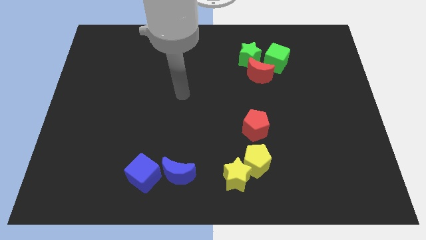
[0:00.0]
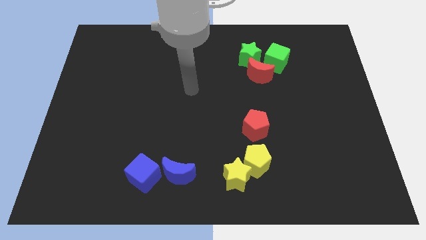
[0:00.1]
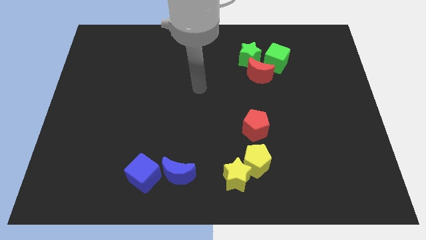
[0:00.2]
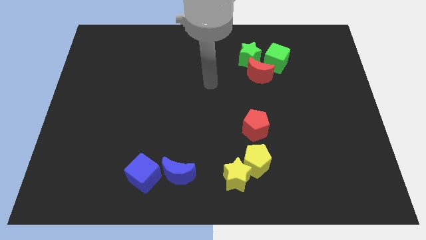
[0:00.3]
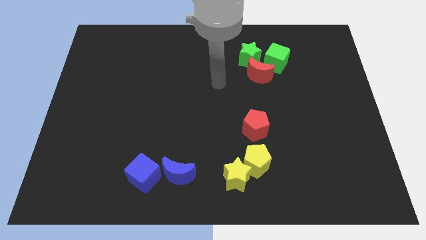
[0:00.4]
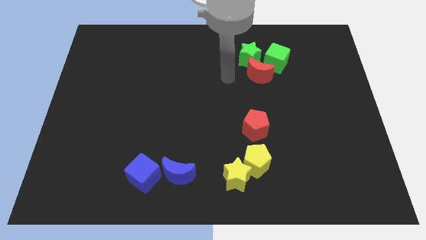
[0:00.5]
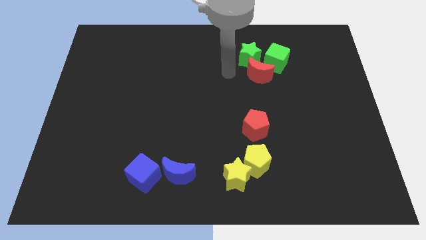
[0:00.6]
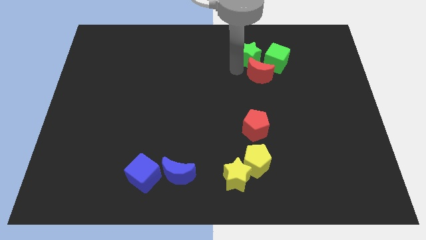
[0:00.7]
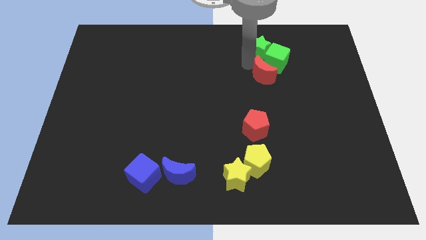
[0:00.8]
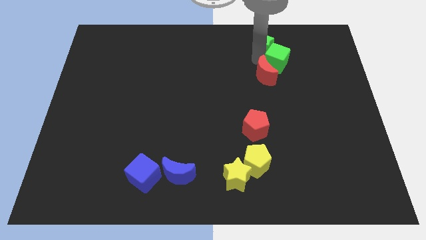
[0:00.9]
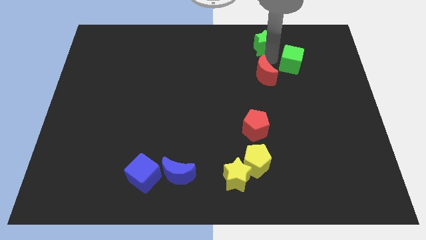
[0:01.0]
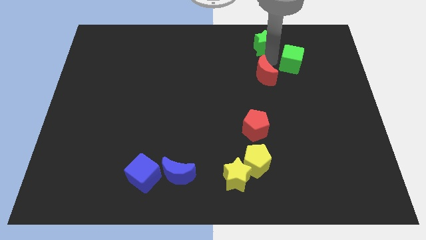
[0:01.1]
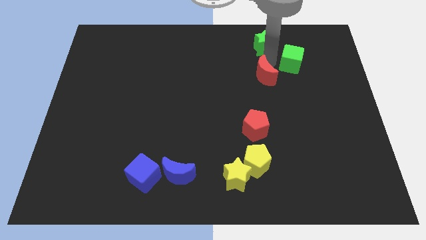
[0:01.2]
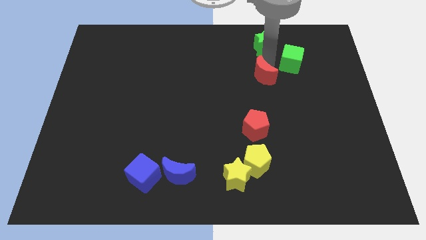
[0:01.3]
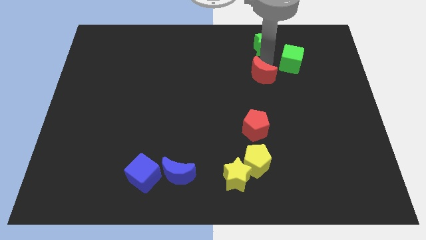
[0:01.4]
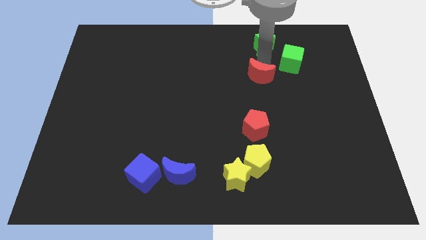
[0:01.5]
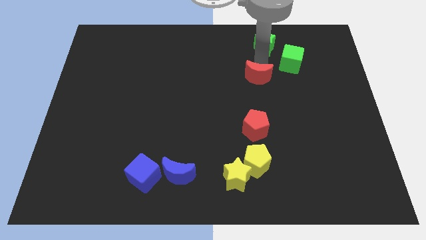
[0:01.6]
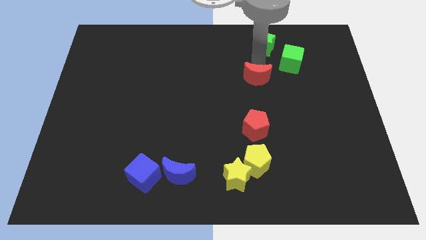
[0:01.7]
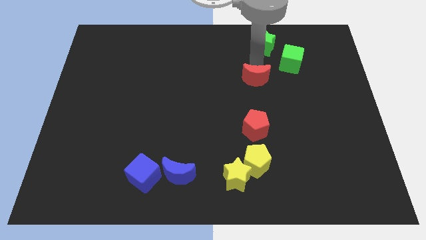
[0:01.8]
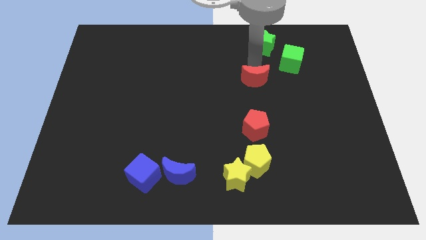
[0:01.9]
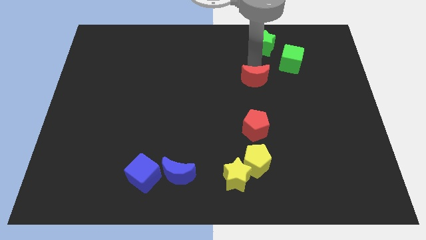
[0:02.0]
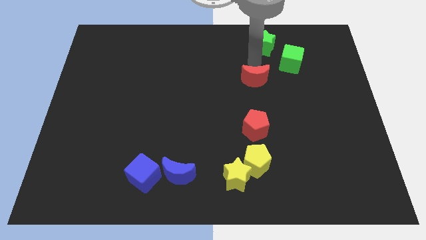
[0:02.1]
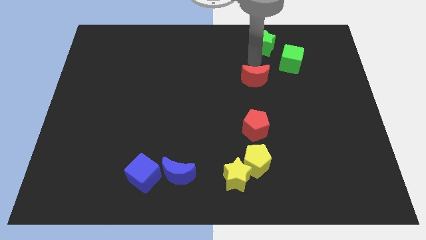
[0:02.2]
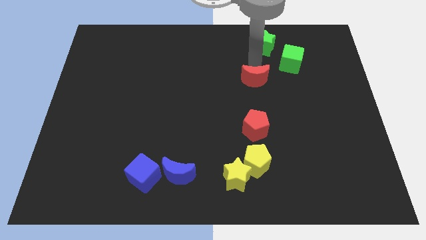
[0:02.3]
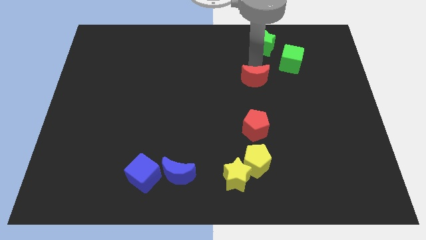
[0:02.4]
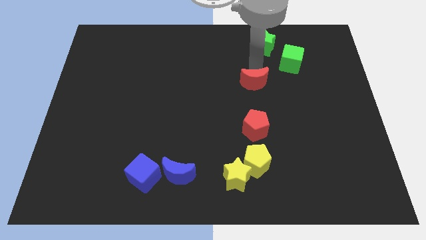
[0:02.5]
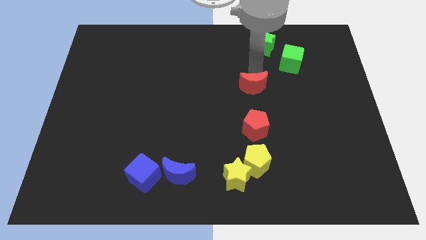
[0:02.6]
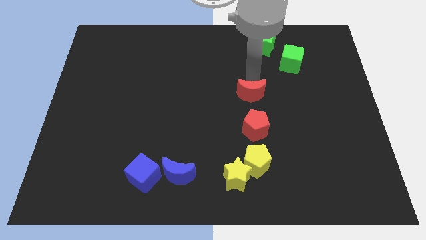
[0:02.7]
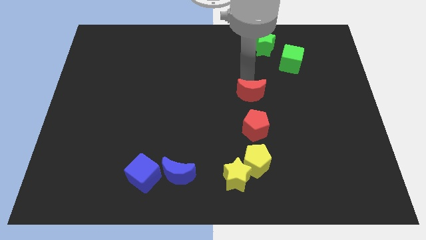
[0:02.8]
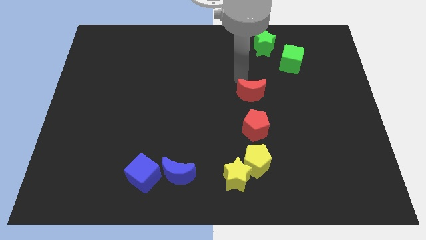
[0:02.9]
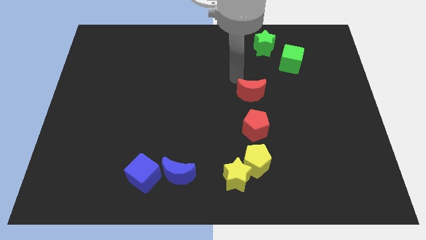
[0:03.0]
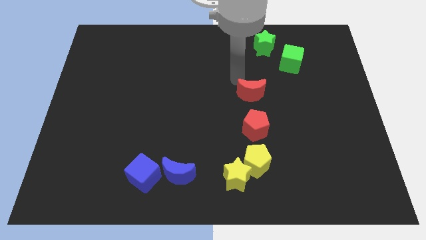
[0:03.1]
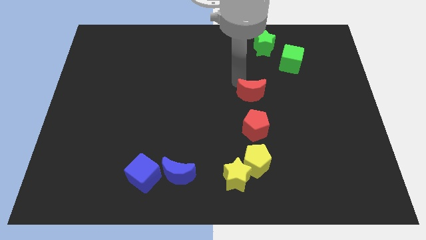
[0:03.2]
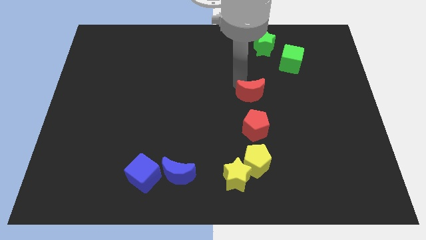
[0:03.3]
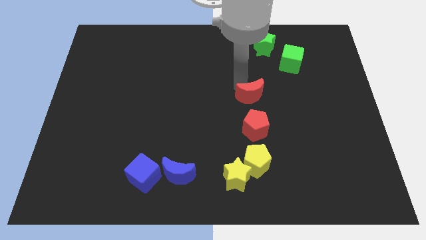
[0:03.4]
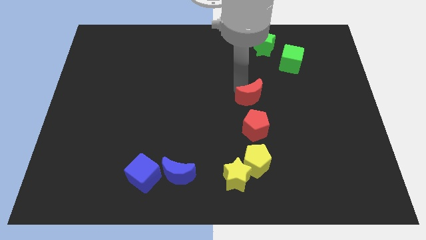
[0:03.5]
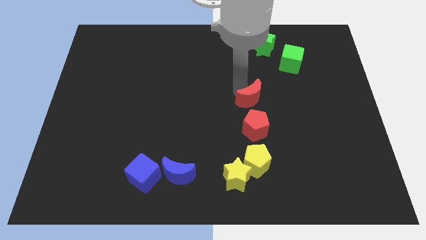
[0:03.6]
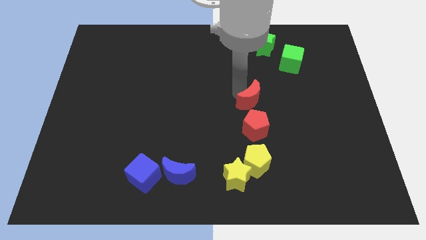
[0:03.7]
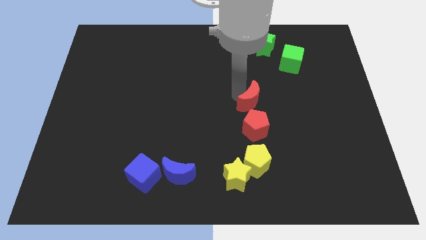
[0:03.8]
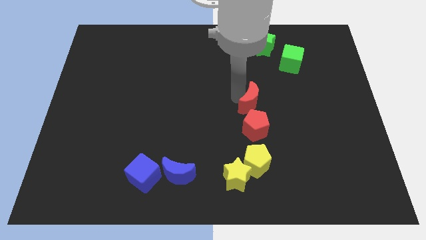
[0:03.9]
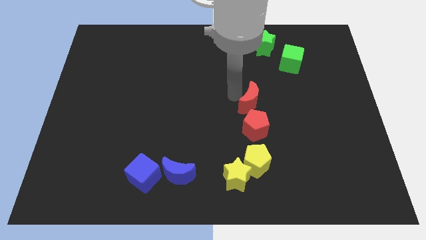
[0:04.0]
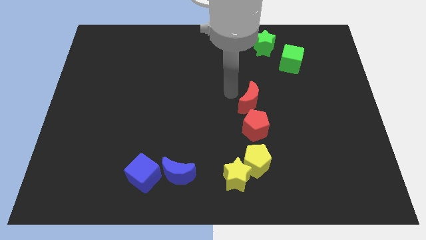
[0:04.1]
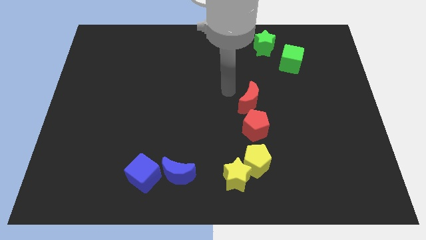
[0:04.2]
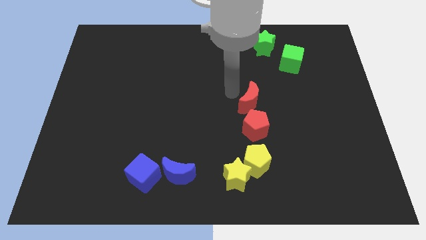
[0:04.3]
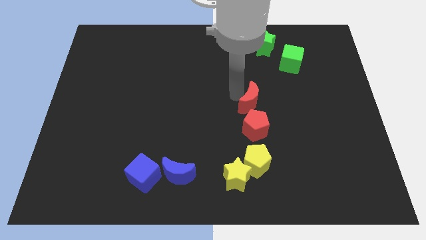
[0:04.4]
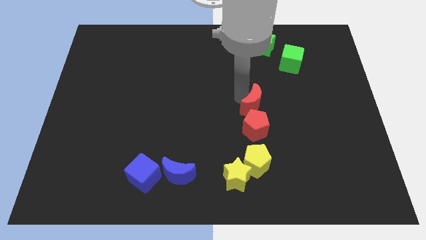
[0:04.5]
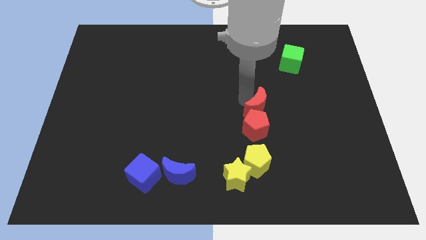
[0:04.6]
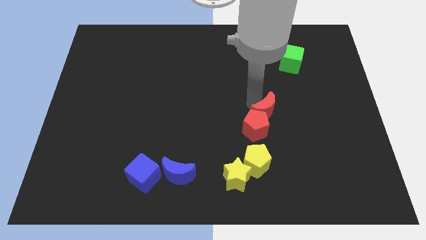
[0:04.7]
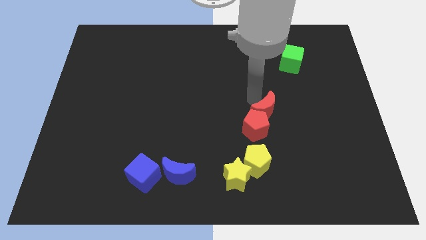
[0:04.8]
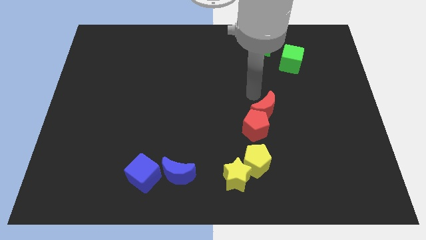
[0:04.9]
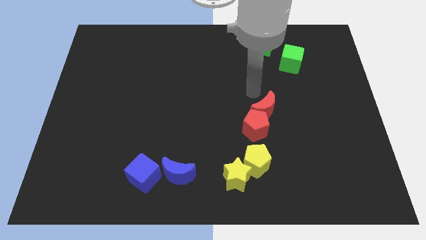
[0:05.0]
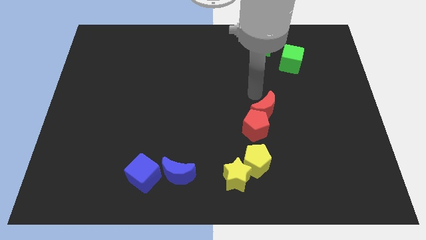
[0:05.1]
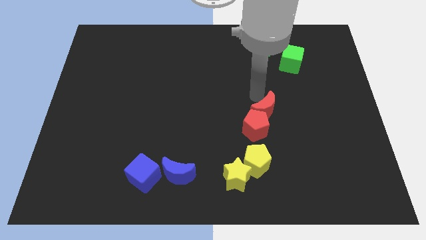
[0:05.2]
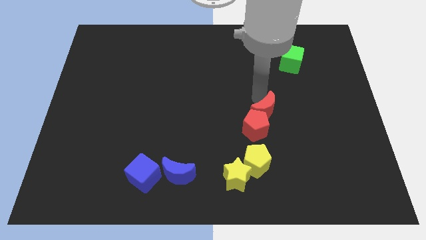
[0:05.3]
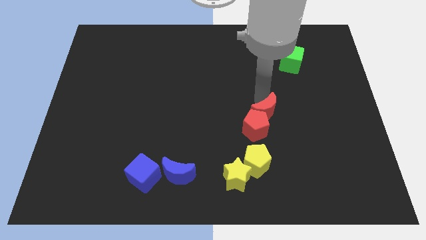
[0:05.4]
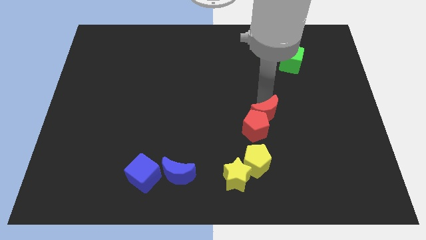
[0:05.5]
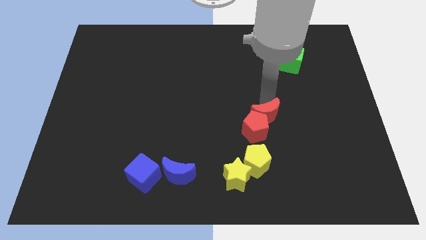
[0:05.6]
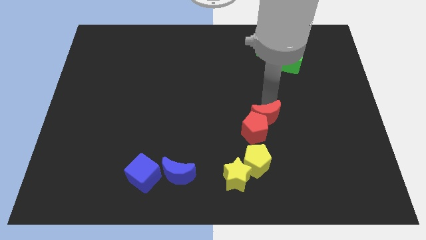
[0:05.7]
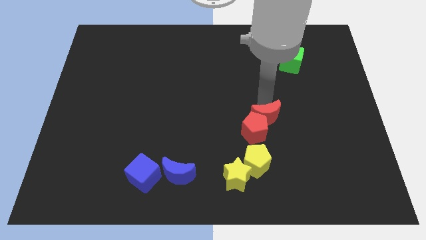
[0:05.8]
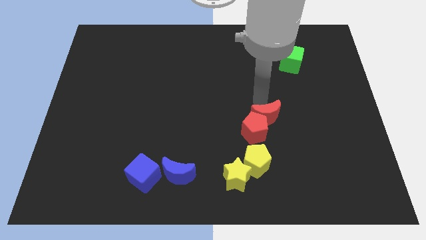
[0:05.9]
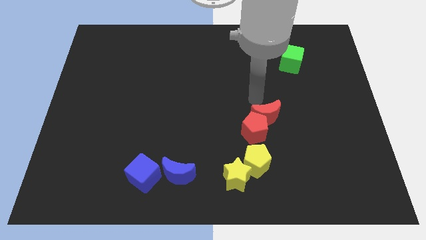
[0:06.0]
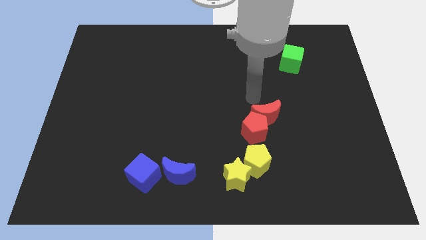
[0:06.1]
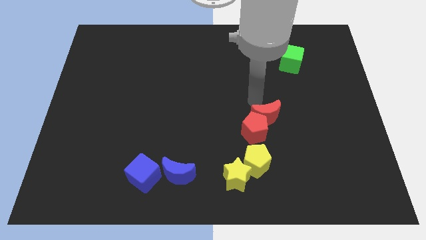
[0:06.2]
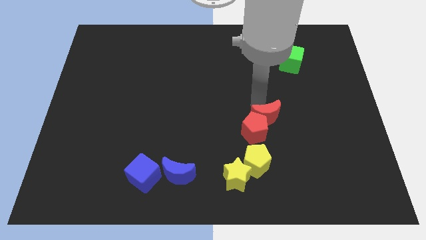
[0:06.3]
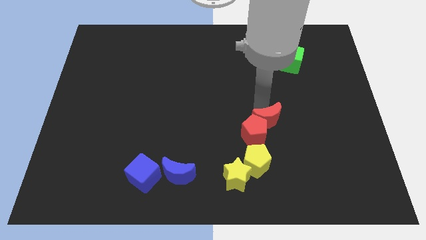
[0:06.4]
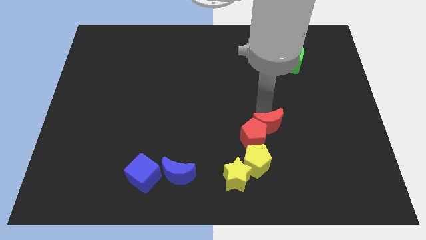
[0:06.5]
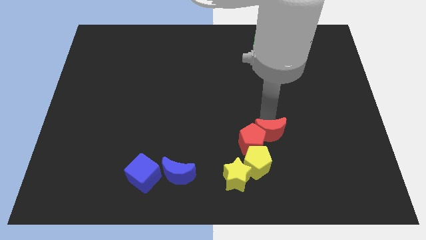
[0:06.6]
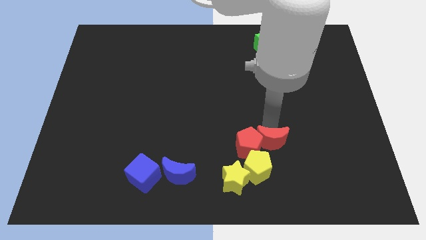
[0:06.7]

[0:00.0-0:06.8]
push the red moon to the bottom right of the red pentagon
